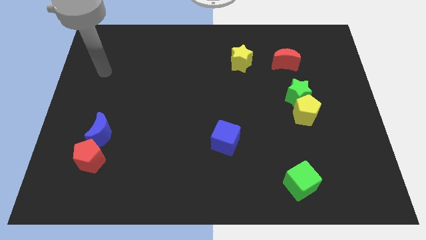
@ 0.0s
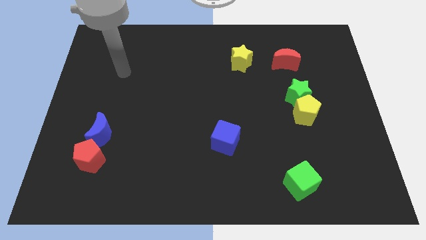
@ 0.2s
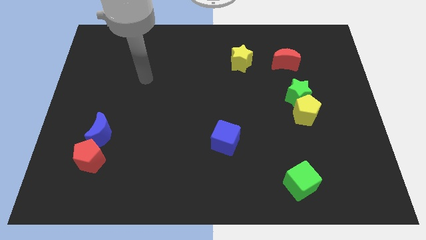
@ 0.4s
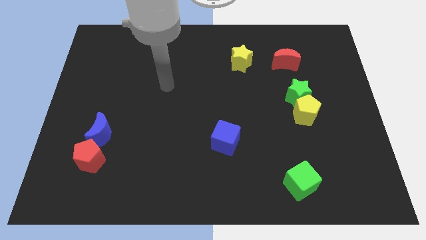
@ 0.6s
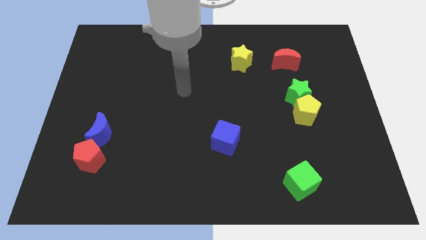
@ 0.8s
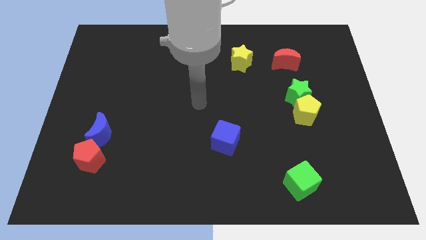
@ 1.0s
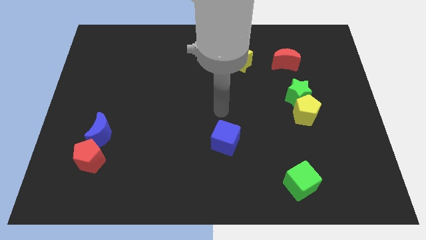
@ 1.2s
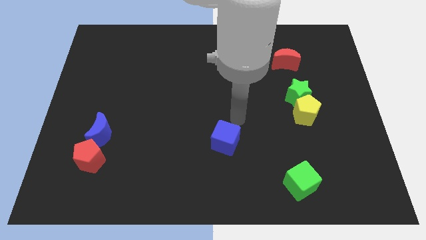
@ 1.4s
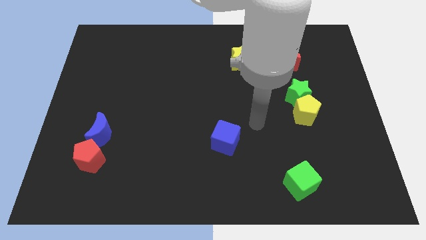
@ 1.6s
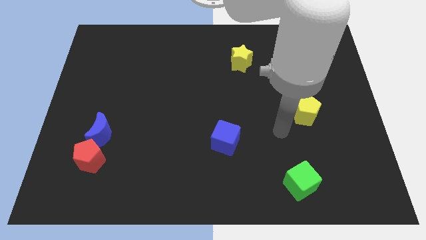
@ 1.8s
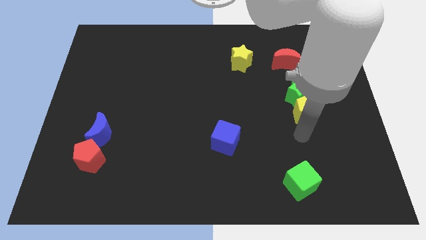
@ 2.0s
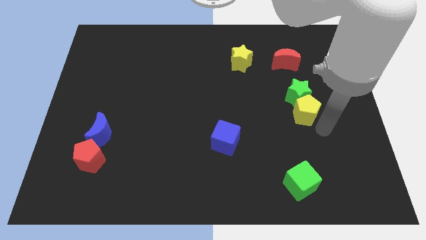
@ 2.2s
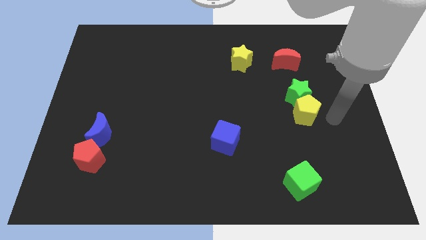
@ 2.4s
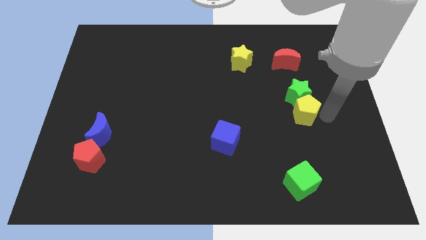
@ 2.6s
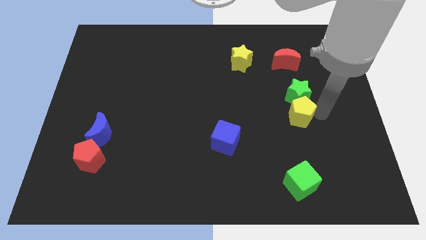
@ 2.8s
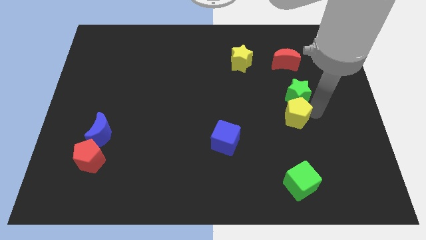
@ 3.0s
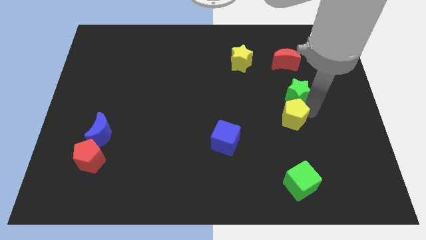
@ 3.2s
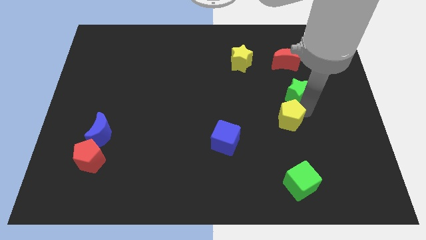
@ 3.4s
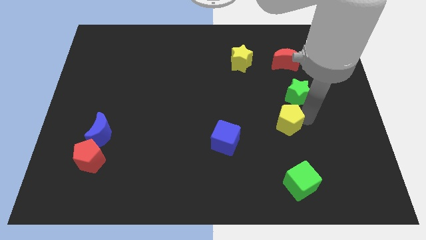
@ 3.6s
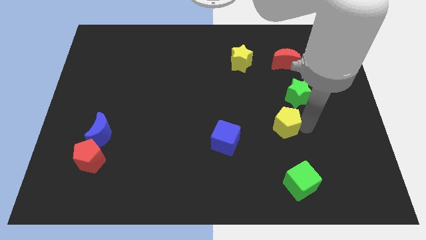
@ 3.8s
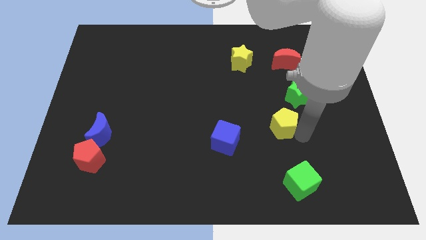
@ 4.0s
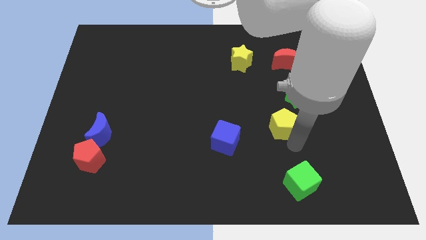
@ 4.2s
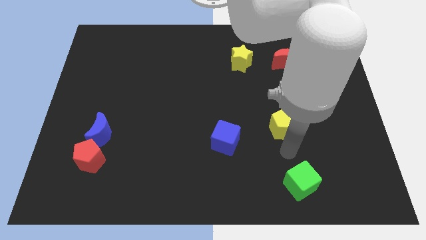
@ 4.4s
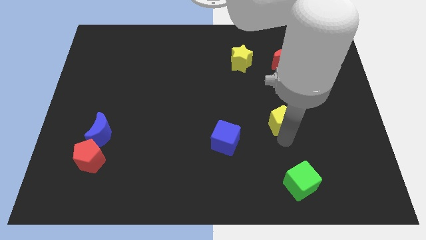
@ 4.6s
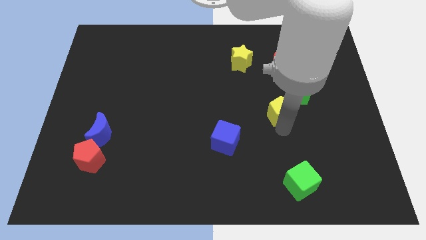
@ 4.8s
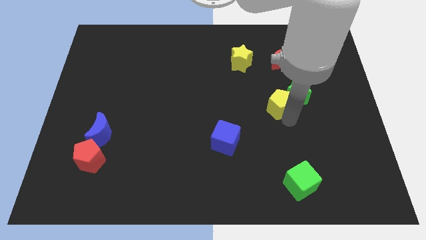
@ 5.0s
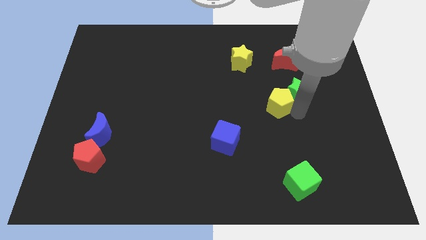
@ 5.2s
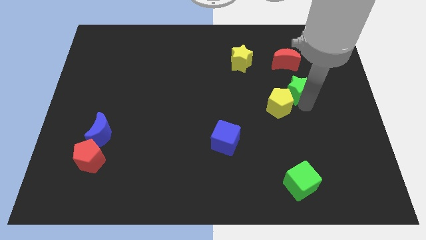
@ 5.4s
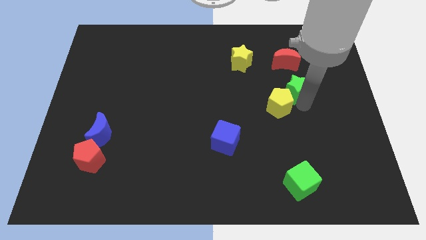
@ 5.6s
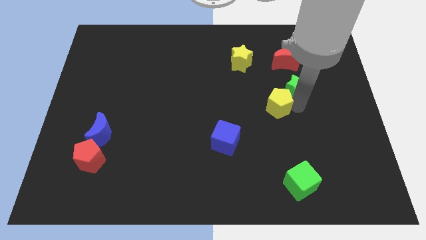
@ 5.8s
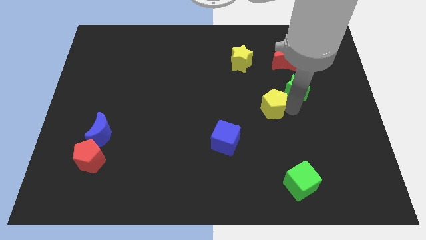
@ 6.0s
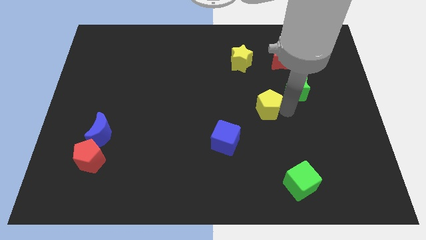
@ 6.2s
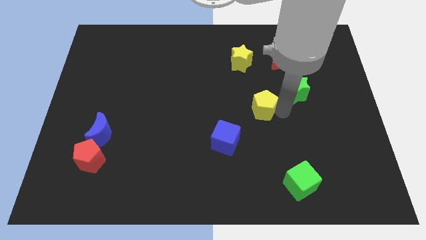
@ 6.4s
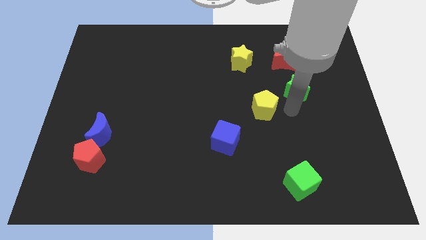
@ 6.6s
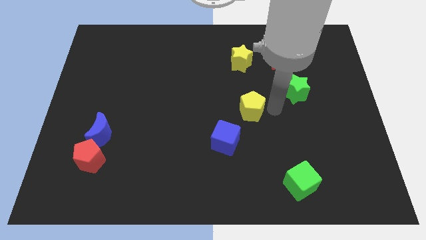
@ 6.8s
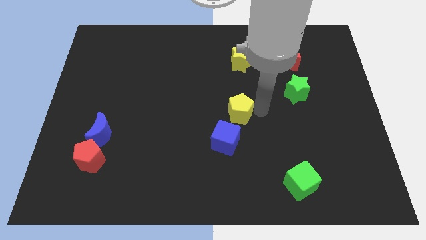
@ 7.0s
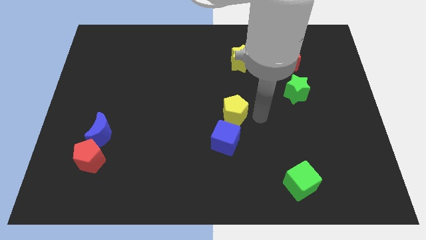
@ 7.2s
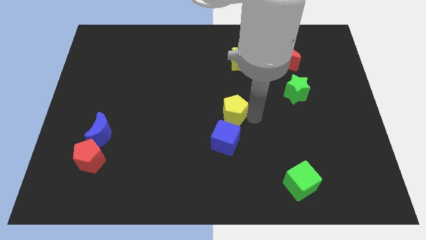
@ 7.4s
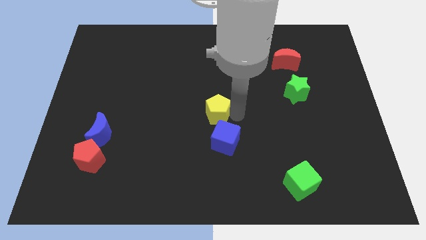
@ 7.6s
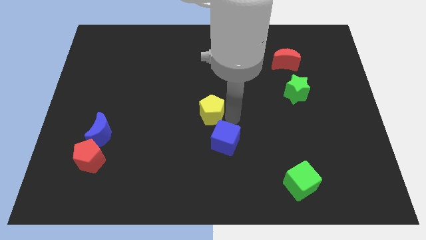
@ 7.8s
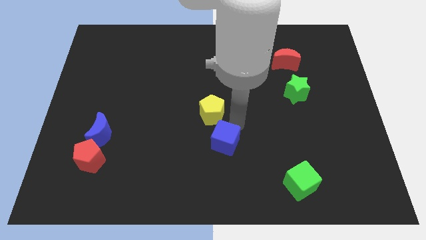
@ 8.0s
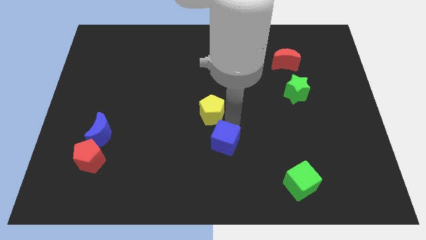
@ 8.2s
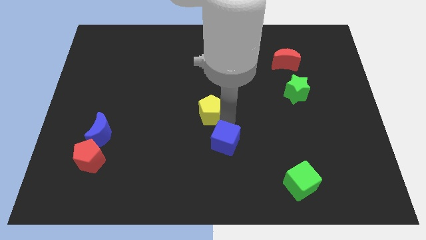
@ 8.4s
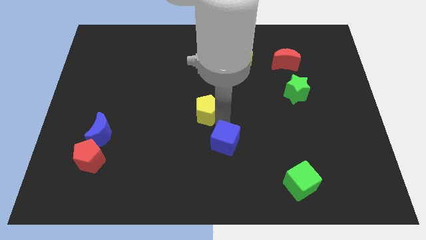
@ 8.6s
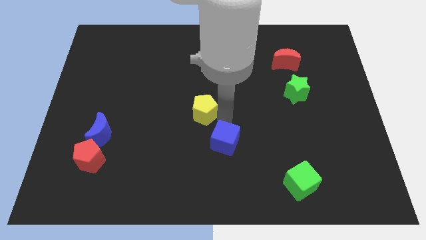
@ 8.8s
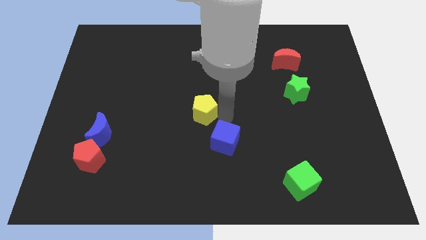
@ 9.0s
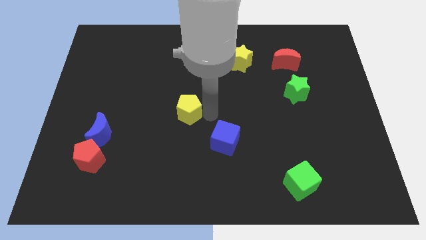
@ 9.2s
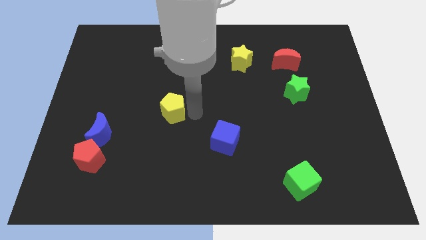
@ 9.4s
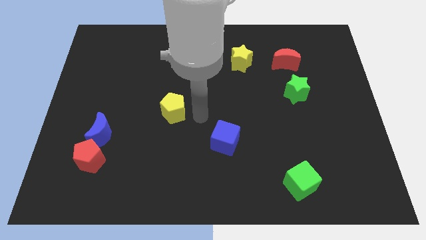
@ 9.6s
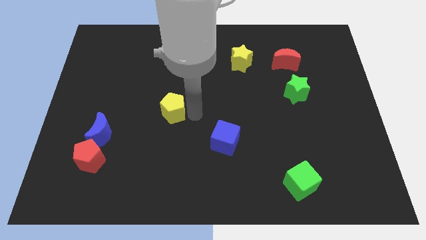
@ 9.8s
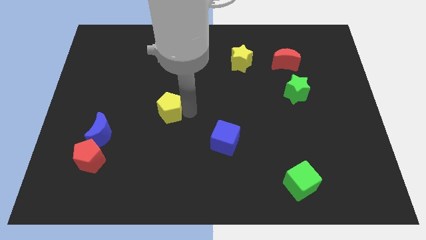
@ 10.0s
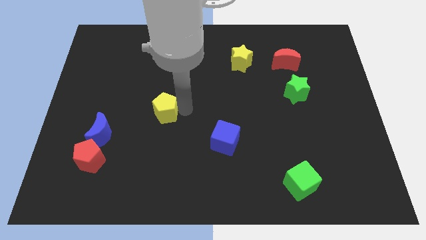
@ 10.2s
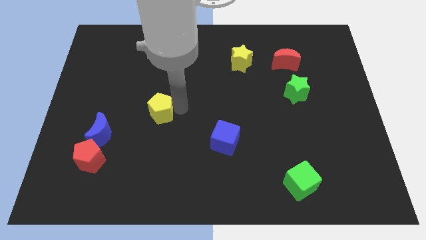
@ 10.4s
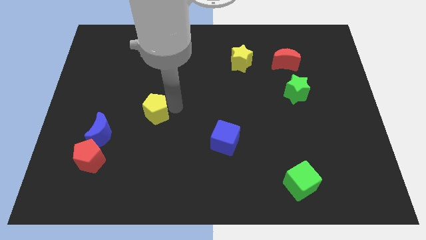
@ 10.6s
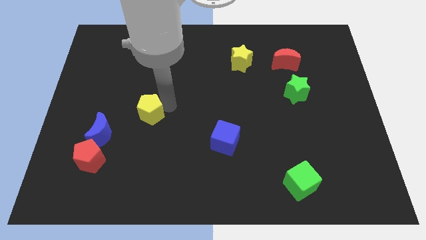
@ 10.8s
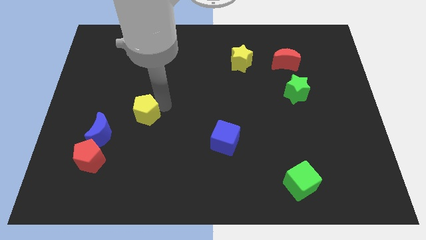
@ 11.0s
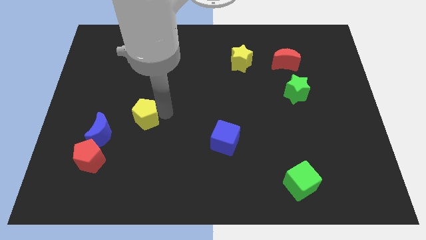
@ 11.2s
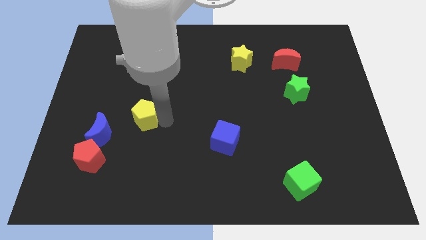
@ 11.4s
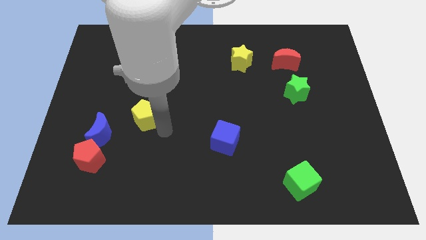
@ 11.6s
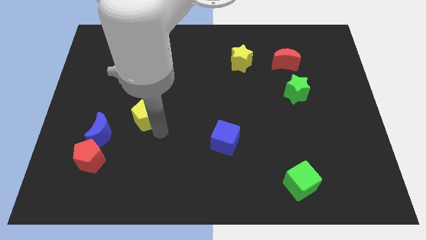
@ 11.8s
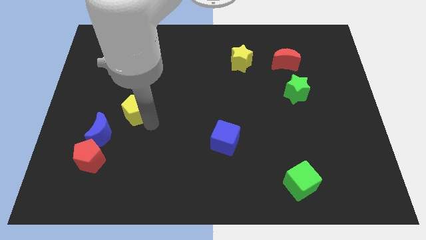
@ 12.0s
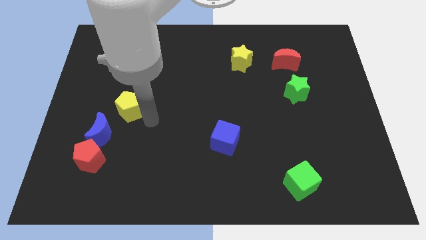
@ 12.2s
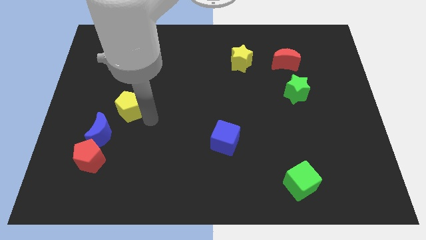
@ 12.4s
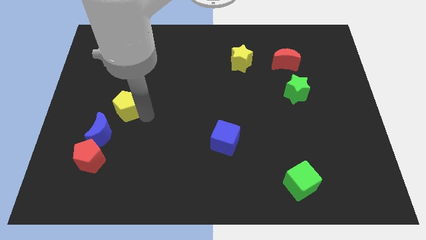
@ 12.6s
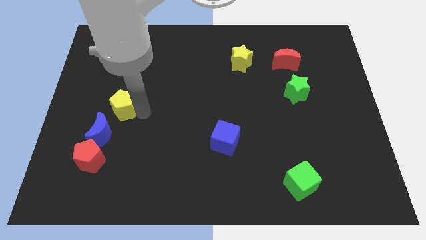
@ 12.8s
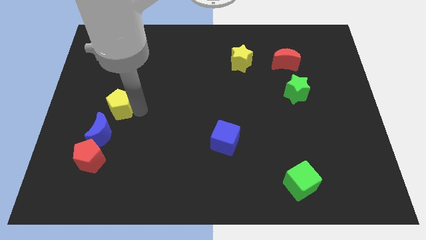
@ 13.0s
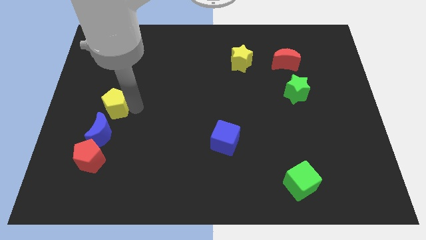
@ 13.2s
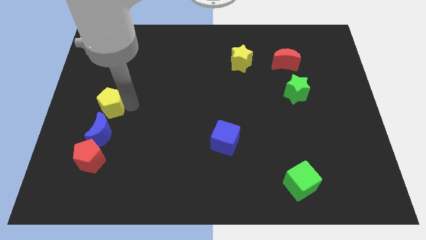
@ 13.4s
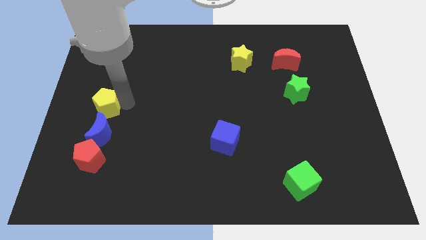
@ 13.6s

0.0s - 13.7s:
move the yellow pentagon to the center left

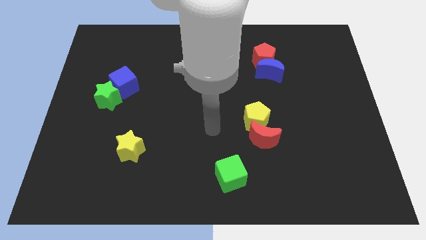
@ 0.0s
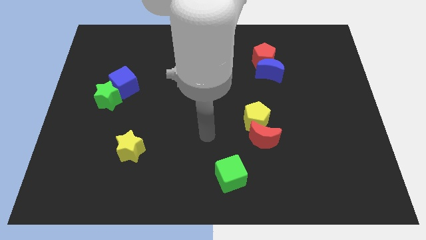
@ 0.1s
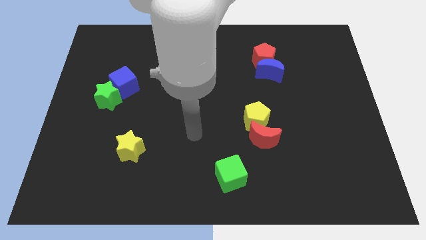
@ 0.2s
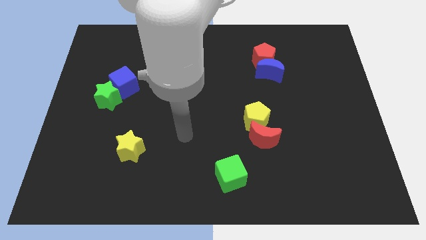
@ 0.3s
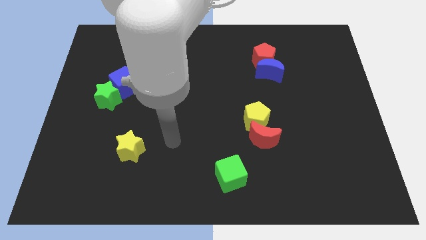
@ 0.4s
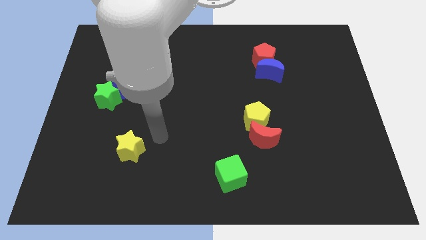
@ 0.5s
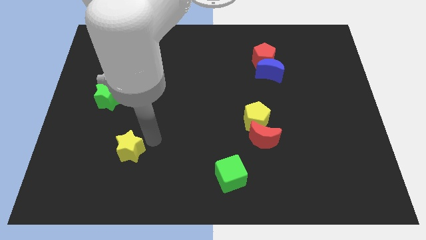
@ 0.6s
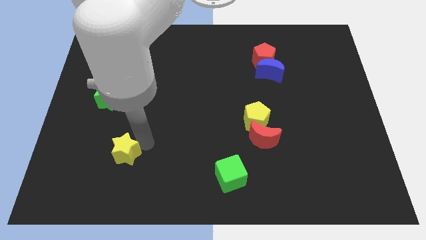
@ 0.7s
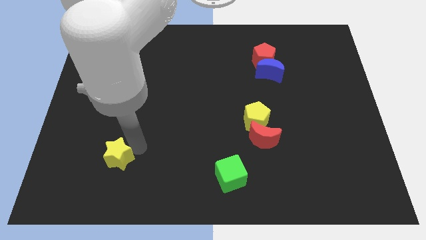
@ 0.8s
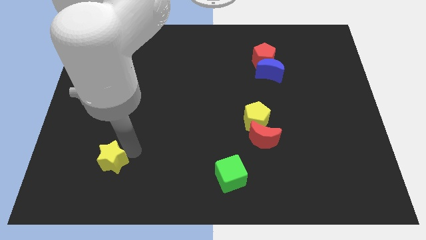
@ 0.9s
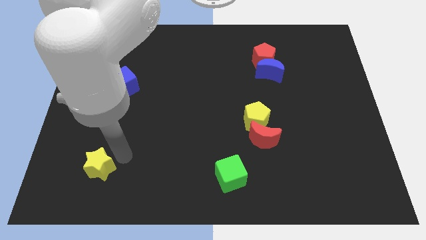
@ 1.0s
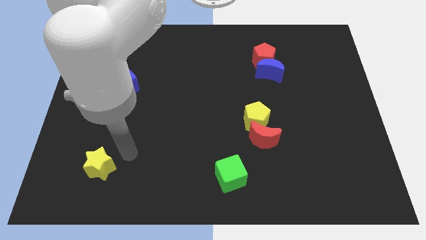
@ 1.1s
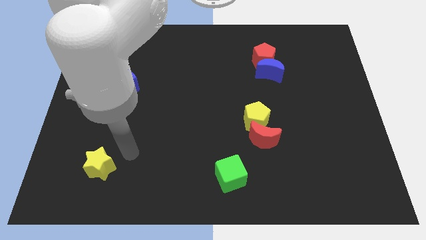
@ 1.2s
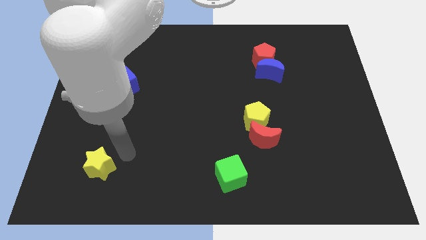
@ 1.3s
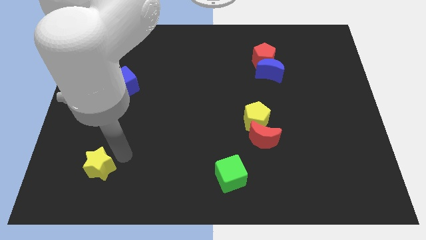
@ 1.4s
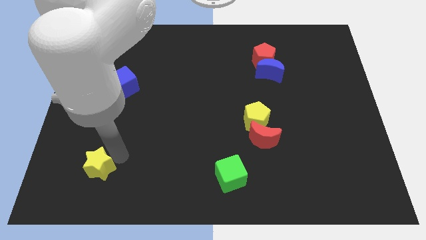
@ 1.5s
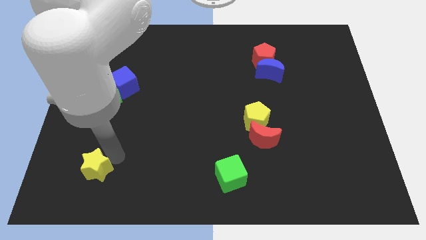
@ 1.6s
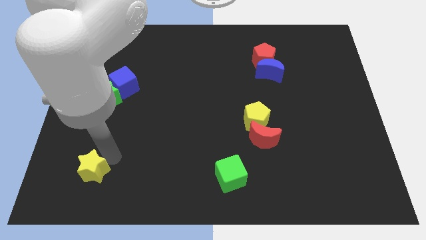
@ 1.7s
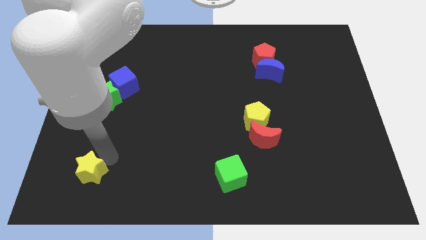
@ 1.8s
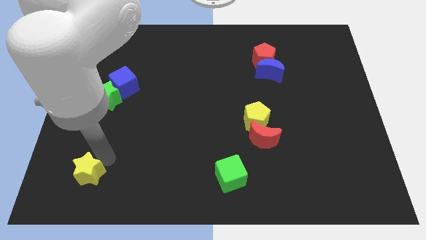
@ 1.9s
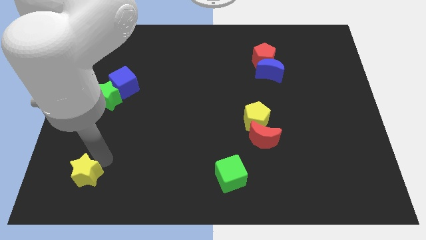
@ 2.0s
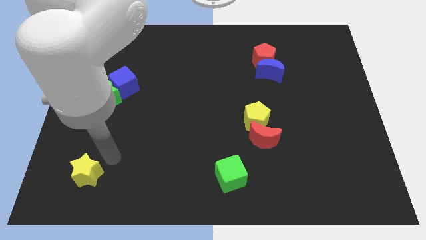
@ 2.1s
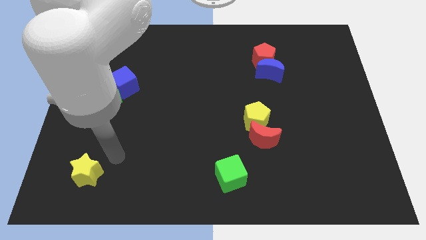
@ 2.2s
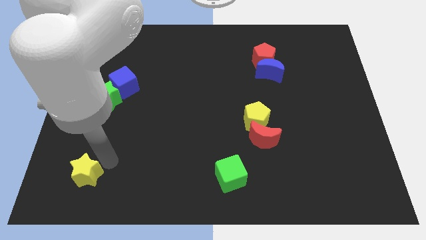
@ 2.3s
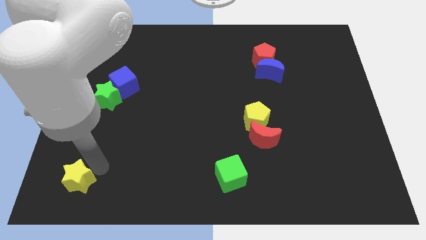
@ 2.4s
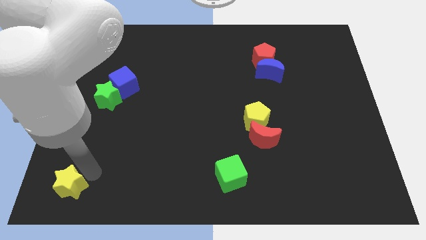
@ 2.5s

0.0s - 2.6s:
move the yellow star to the bottom left of the board
